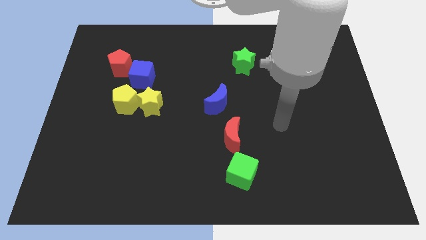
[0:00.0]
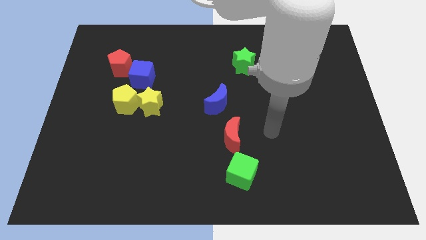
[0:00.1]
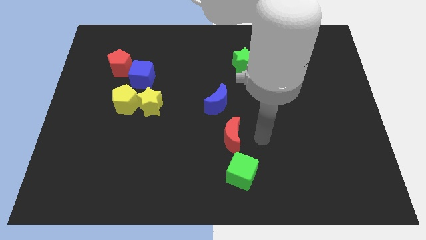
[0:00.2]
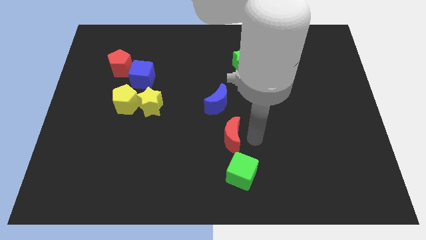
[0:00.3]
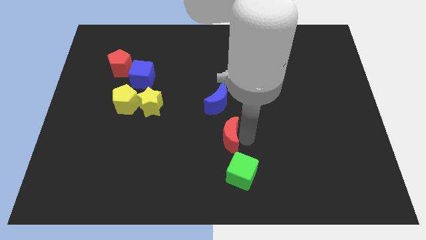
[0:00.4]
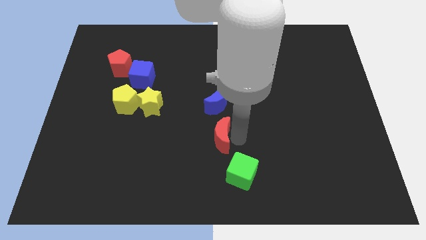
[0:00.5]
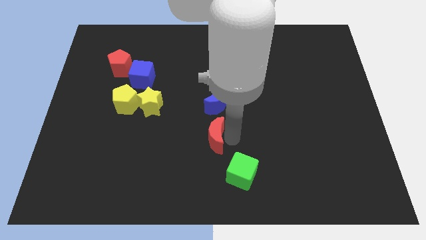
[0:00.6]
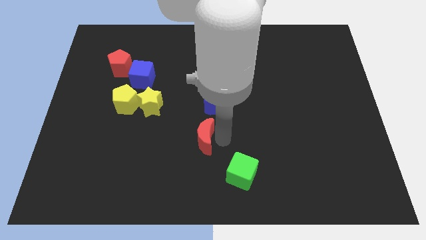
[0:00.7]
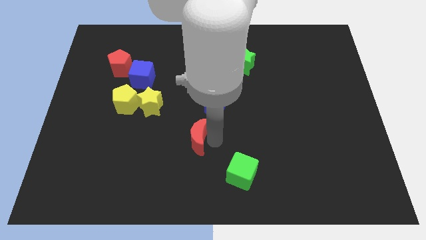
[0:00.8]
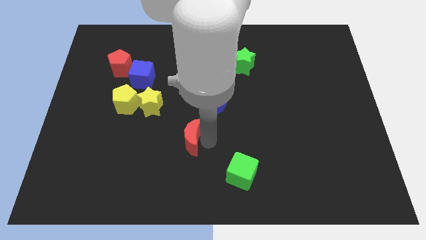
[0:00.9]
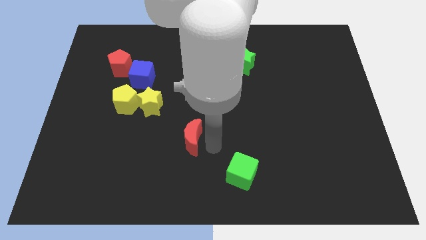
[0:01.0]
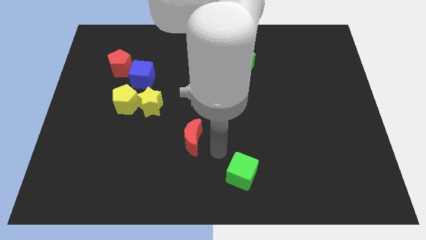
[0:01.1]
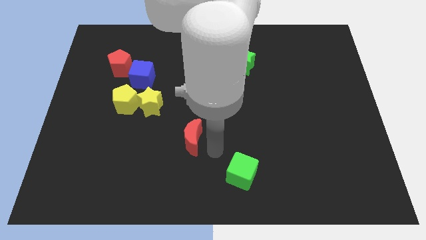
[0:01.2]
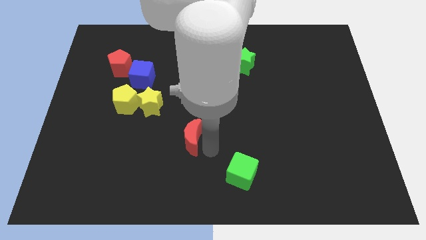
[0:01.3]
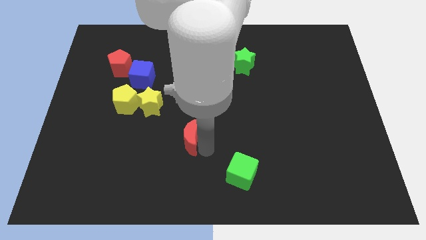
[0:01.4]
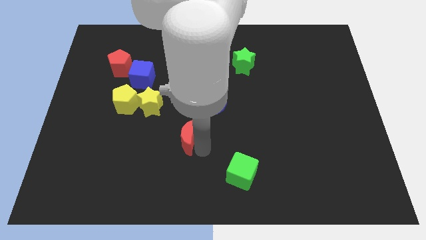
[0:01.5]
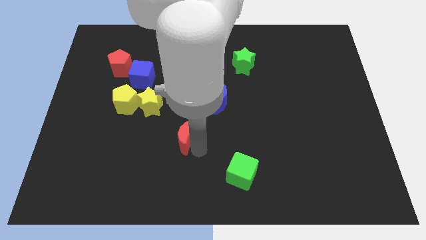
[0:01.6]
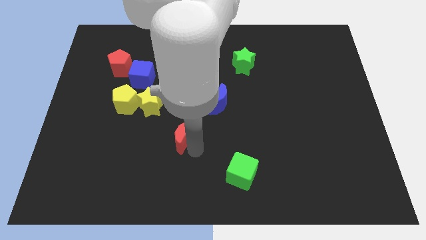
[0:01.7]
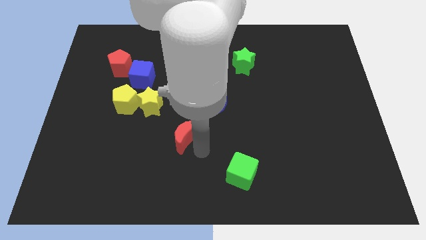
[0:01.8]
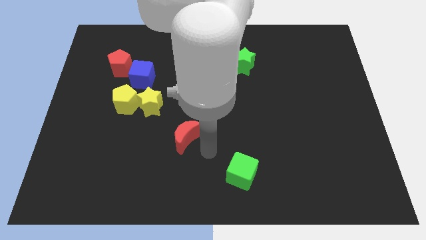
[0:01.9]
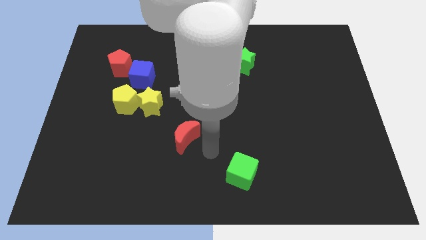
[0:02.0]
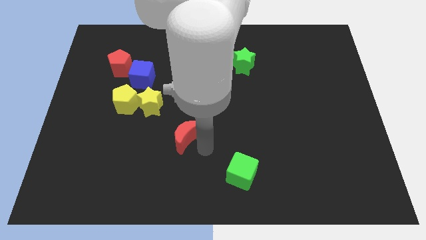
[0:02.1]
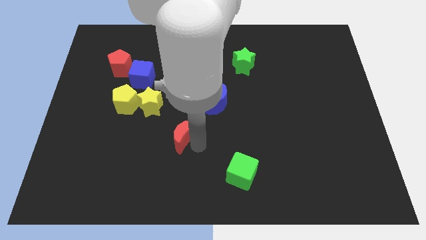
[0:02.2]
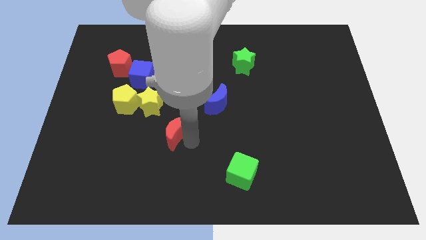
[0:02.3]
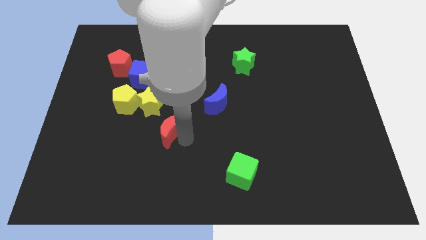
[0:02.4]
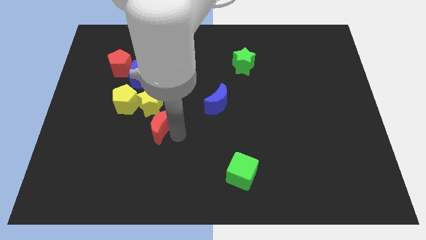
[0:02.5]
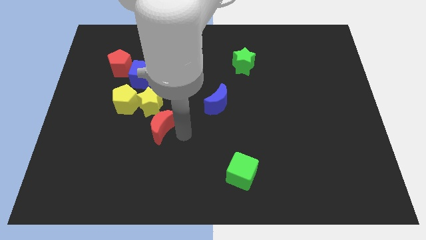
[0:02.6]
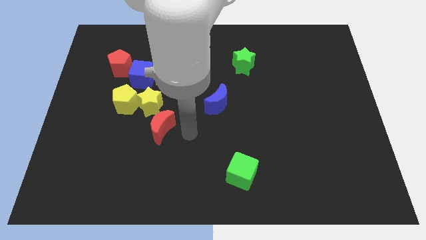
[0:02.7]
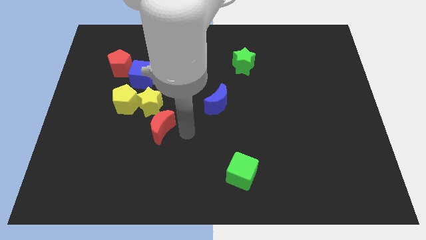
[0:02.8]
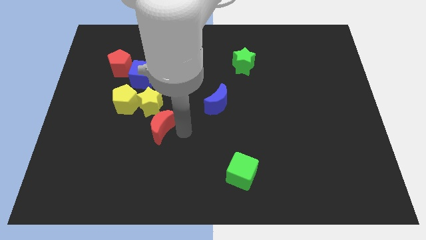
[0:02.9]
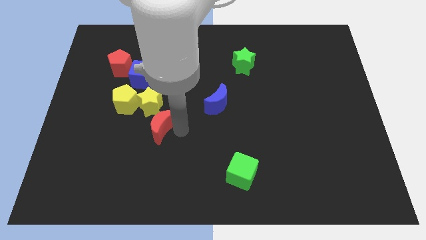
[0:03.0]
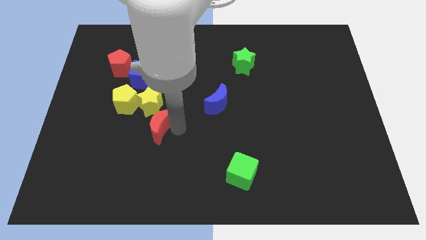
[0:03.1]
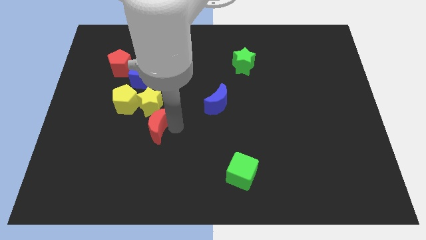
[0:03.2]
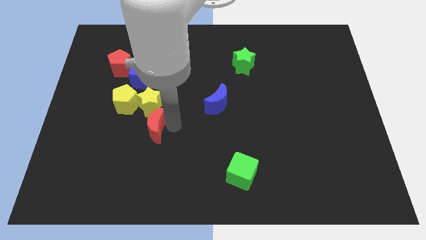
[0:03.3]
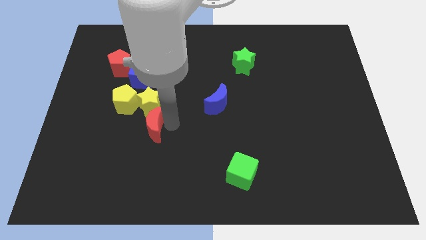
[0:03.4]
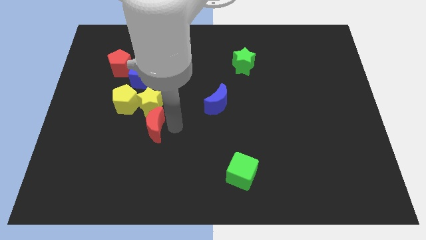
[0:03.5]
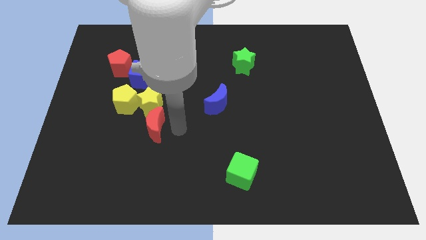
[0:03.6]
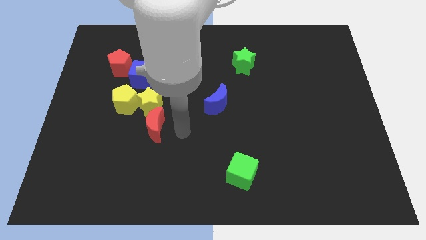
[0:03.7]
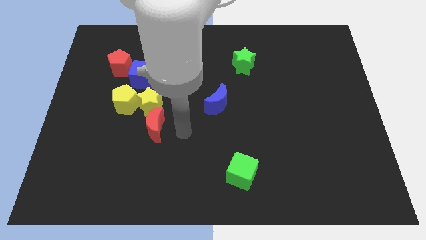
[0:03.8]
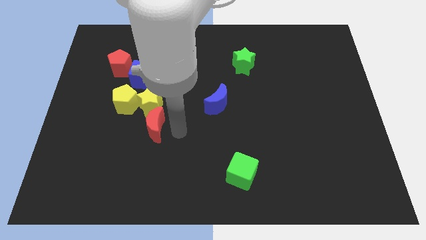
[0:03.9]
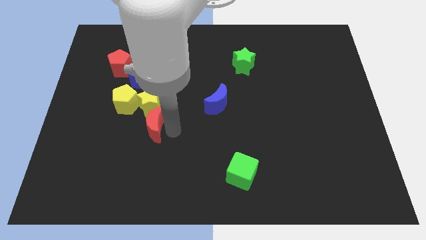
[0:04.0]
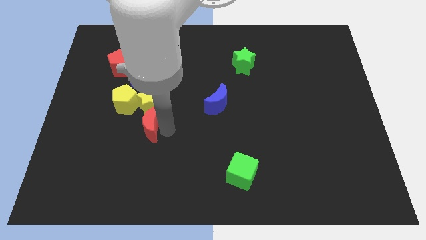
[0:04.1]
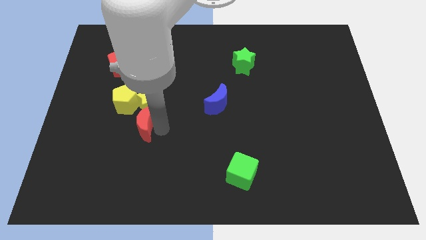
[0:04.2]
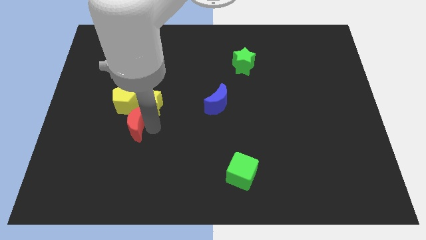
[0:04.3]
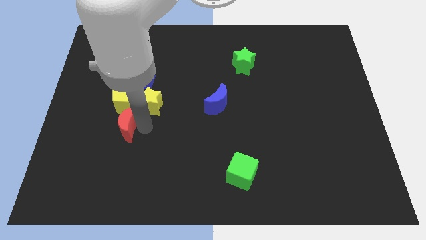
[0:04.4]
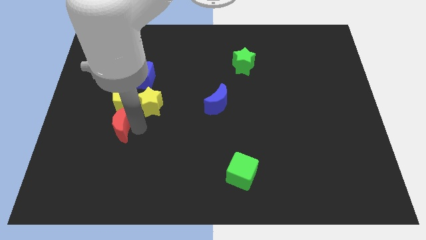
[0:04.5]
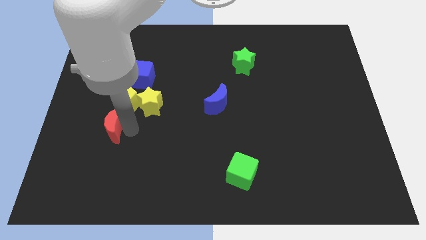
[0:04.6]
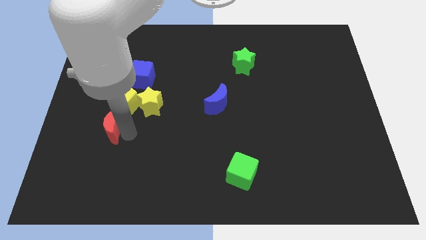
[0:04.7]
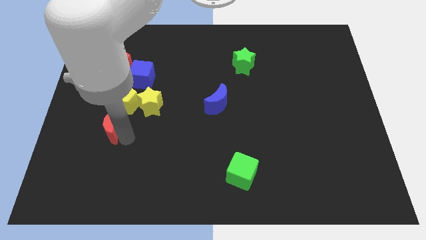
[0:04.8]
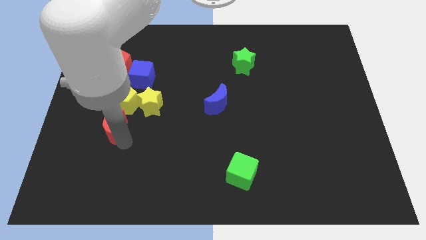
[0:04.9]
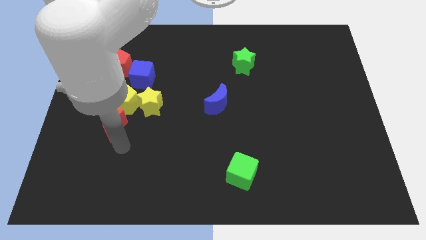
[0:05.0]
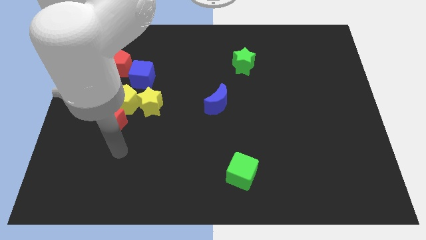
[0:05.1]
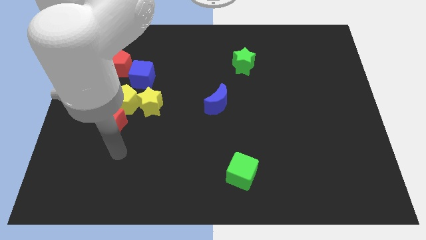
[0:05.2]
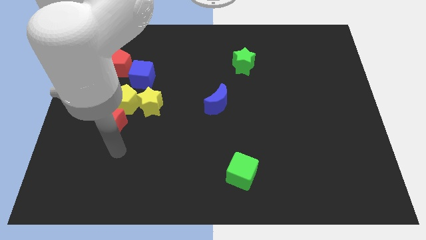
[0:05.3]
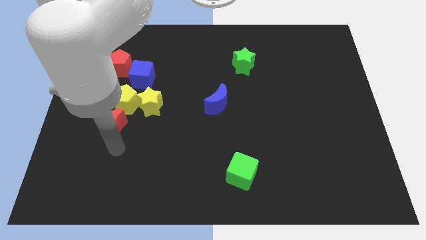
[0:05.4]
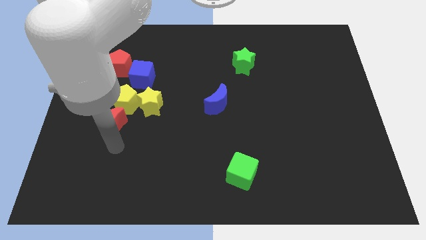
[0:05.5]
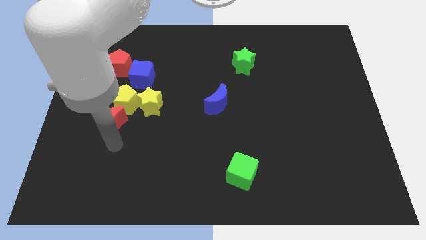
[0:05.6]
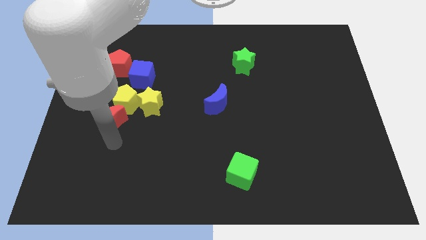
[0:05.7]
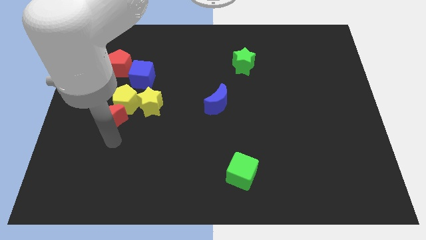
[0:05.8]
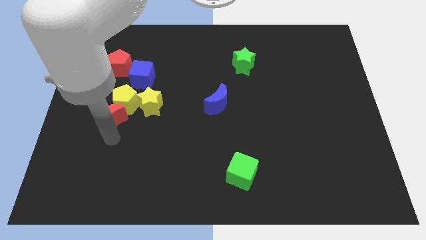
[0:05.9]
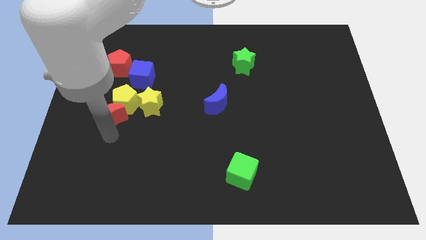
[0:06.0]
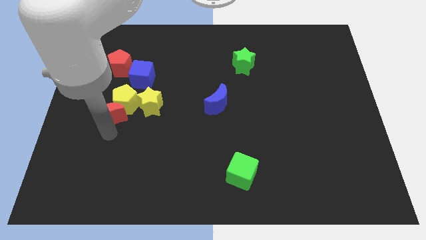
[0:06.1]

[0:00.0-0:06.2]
move the red moon below the red pentagon
